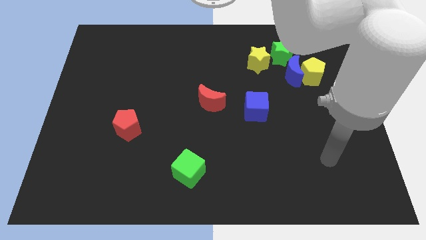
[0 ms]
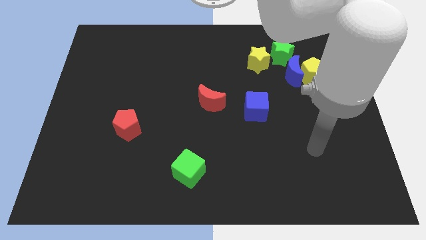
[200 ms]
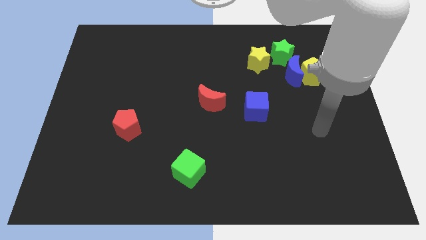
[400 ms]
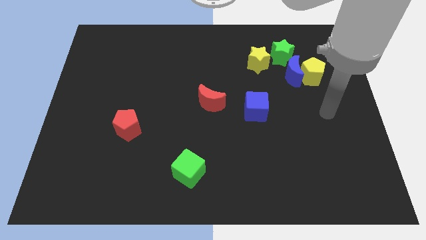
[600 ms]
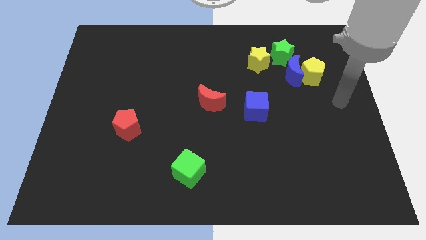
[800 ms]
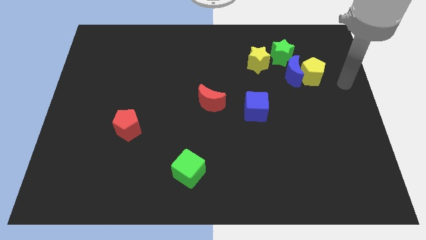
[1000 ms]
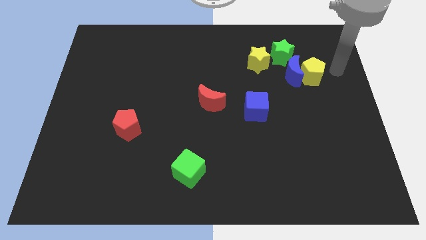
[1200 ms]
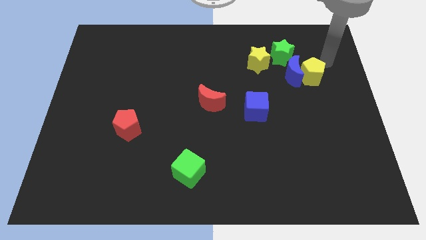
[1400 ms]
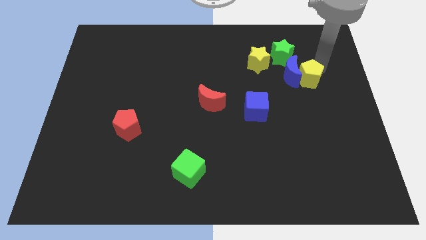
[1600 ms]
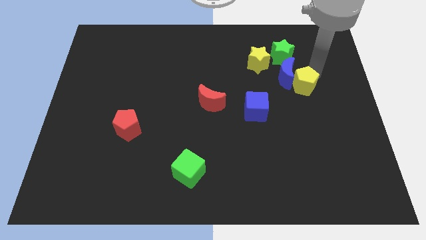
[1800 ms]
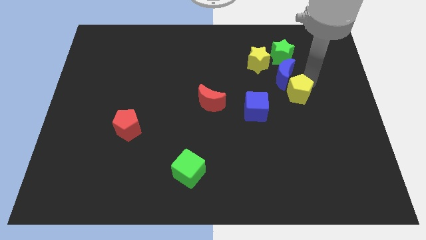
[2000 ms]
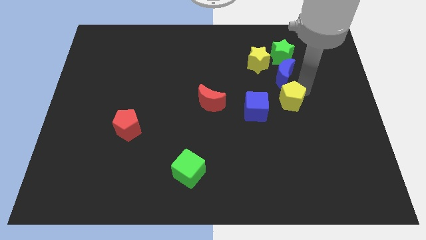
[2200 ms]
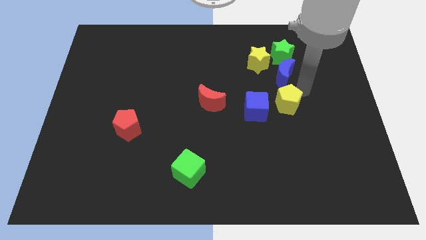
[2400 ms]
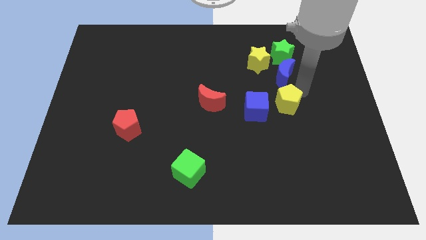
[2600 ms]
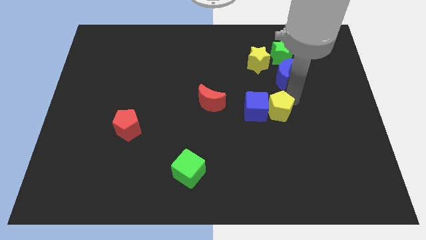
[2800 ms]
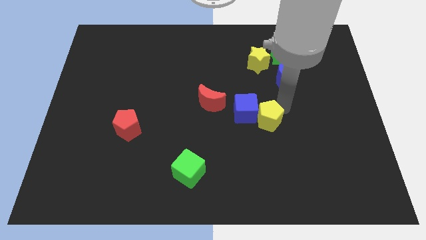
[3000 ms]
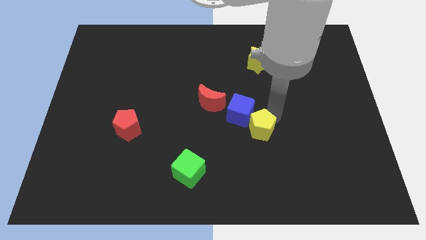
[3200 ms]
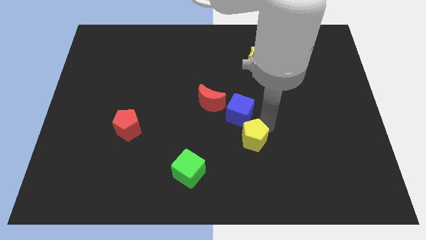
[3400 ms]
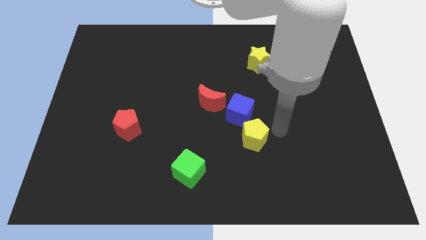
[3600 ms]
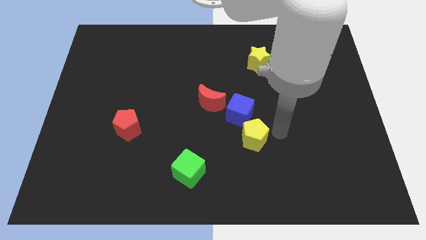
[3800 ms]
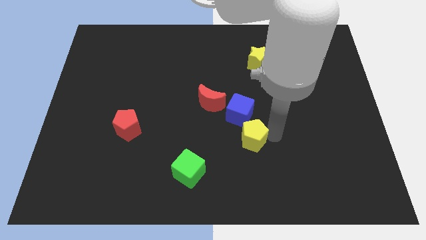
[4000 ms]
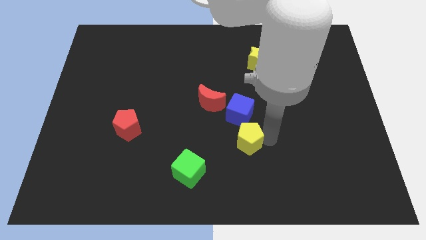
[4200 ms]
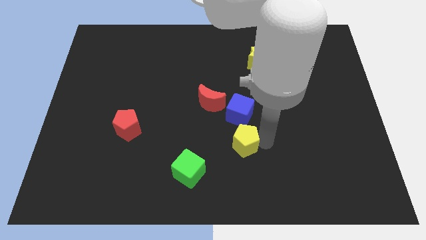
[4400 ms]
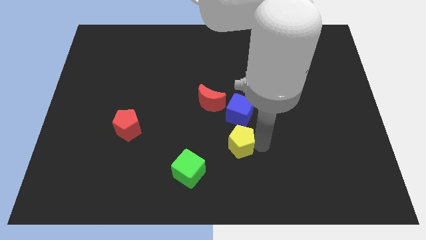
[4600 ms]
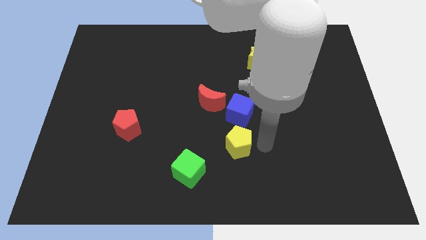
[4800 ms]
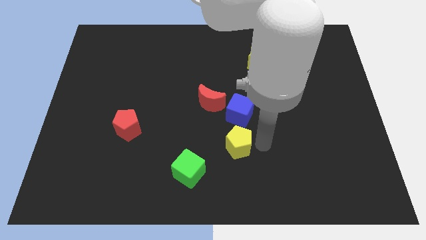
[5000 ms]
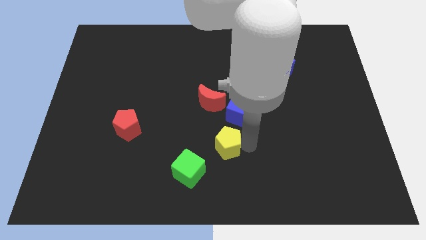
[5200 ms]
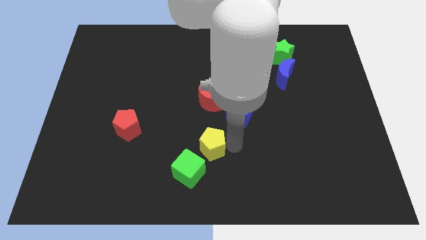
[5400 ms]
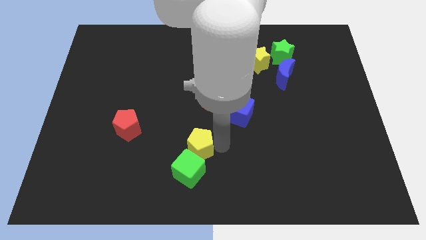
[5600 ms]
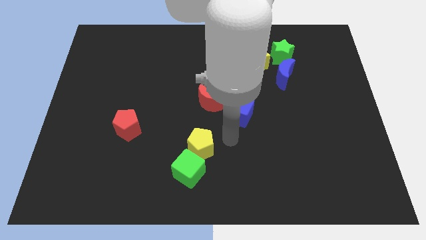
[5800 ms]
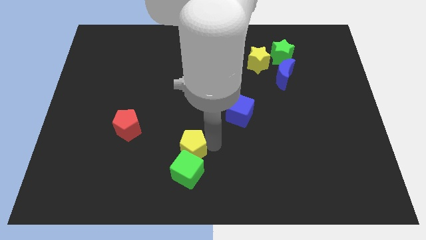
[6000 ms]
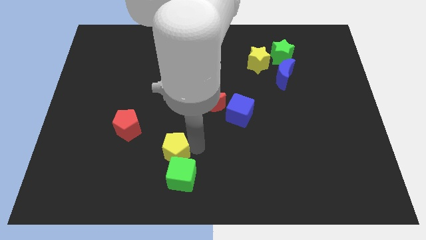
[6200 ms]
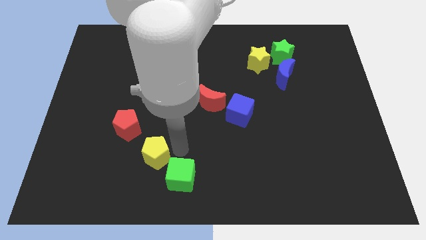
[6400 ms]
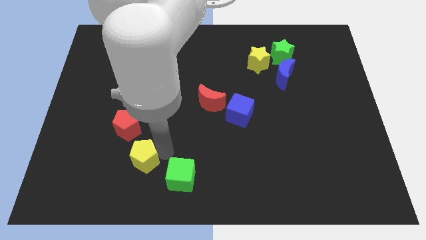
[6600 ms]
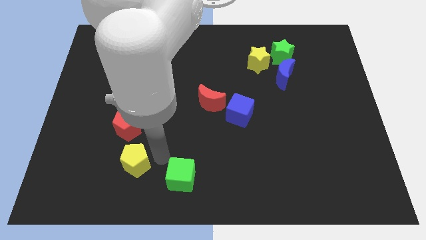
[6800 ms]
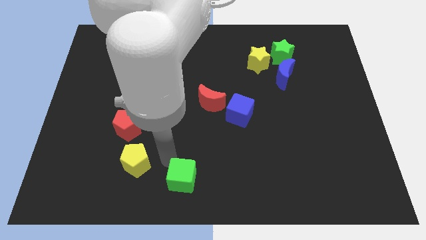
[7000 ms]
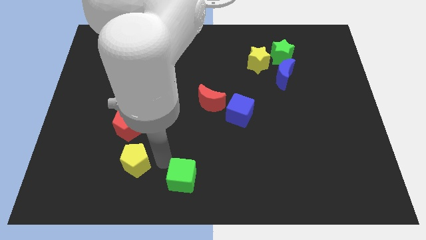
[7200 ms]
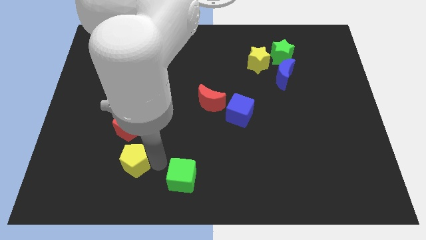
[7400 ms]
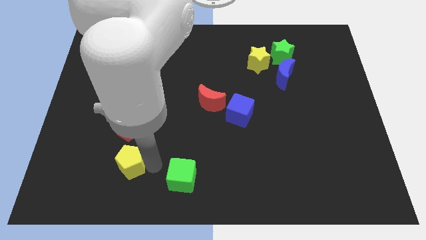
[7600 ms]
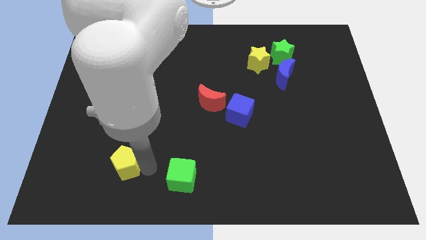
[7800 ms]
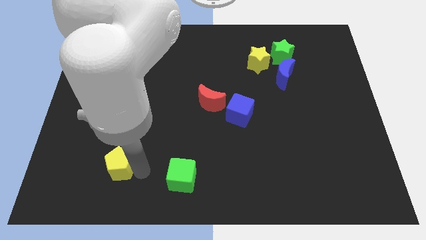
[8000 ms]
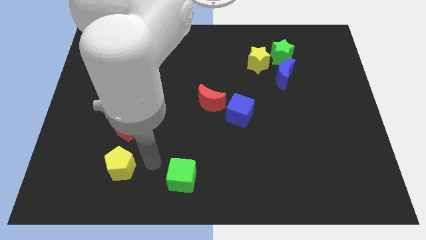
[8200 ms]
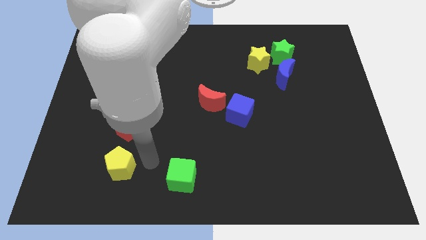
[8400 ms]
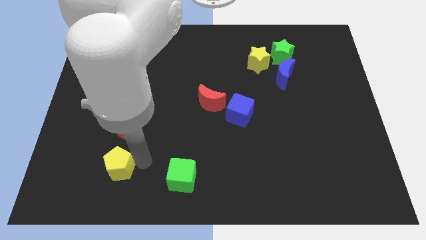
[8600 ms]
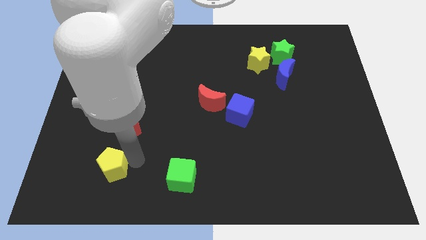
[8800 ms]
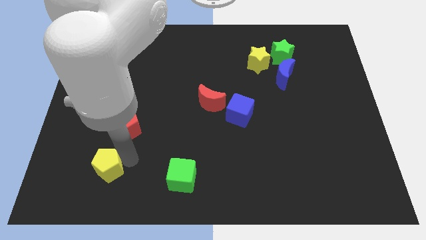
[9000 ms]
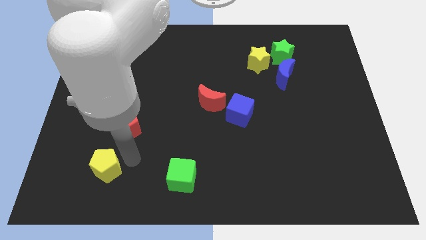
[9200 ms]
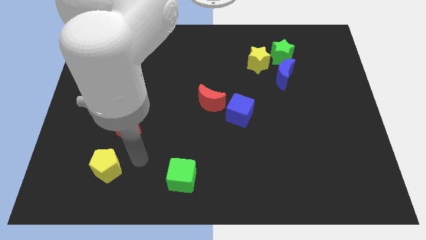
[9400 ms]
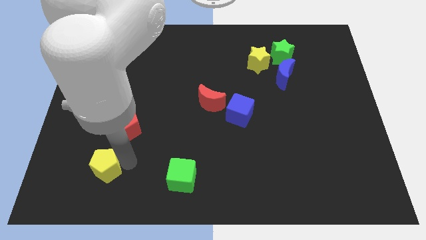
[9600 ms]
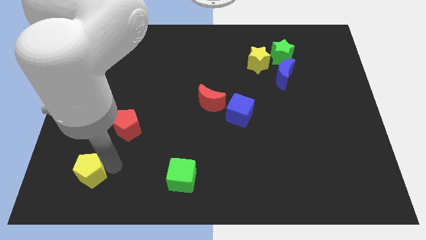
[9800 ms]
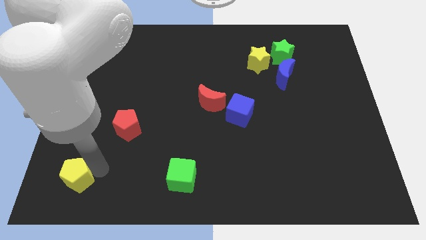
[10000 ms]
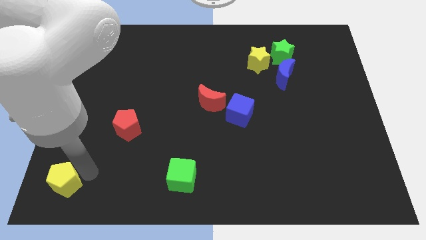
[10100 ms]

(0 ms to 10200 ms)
move the yellow pentagon to the bottom left corner

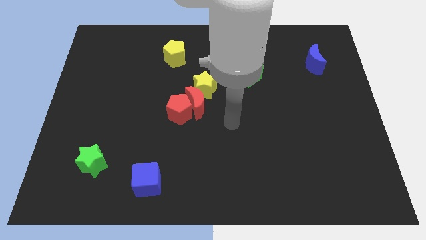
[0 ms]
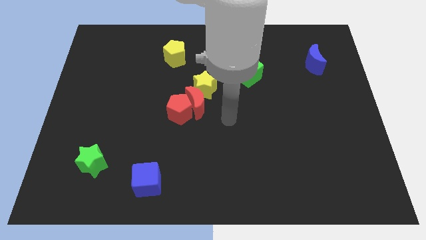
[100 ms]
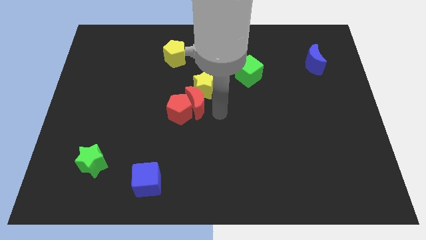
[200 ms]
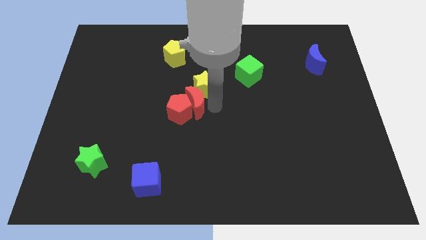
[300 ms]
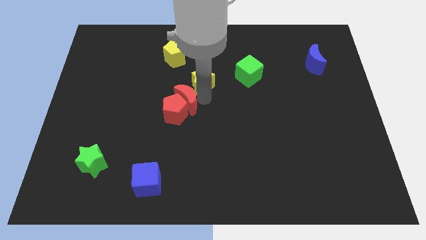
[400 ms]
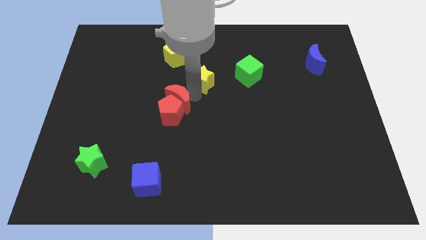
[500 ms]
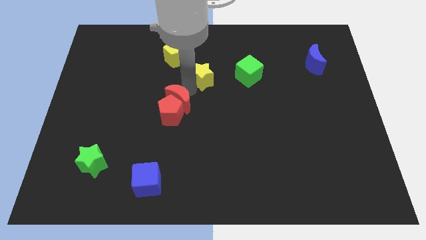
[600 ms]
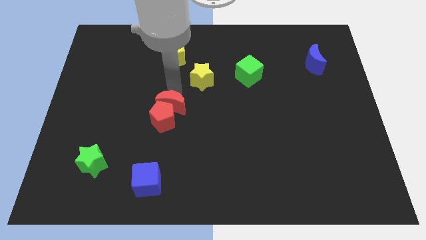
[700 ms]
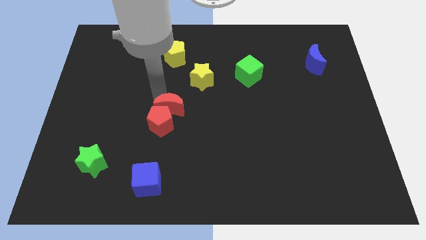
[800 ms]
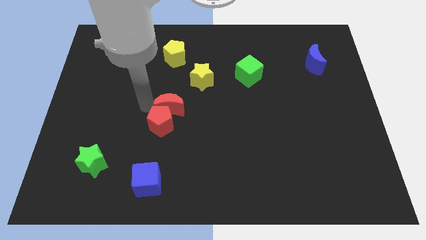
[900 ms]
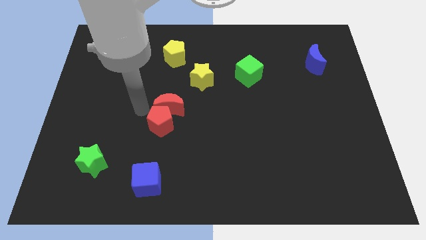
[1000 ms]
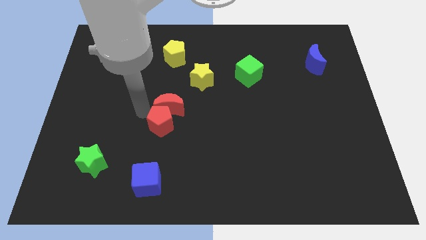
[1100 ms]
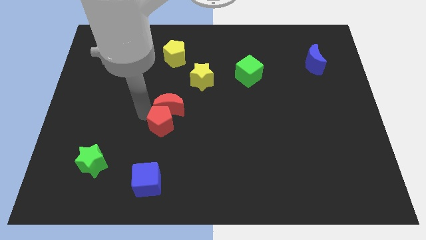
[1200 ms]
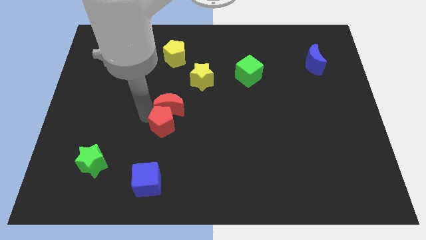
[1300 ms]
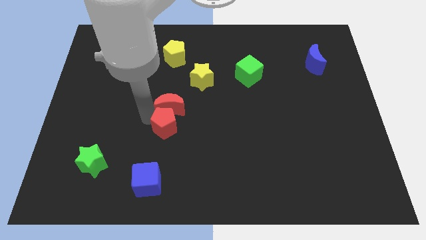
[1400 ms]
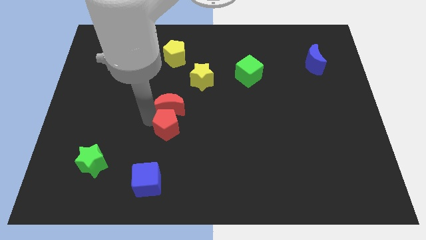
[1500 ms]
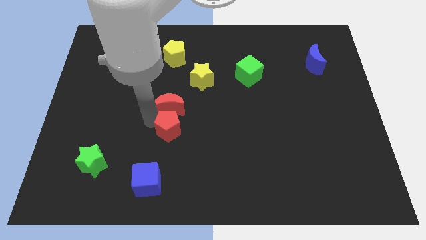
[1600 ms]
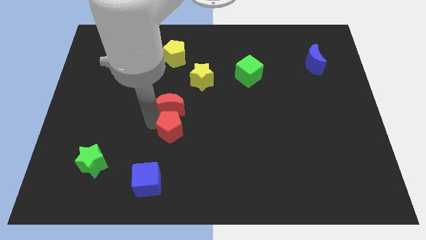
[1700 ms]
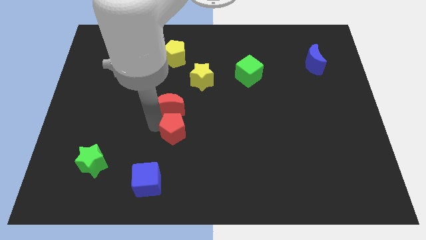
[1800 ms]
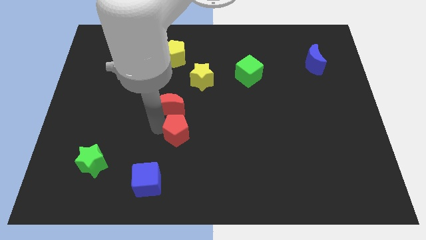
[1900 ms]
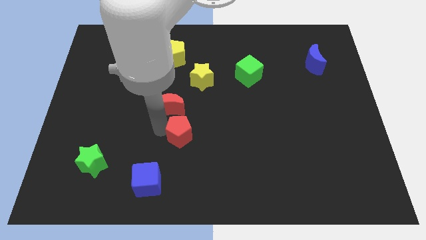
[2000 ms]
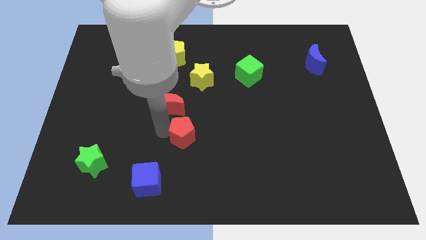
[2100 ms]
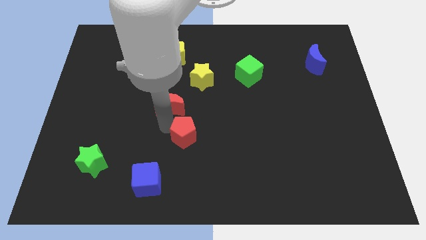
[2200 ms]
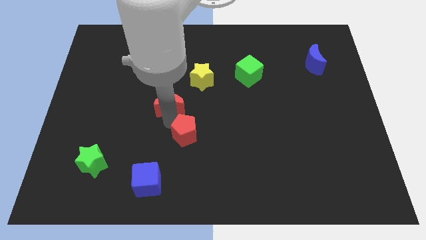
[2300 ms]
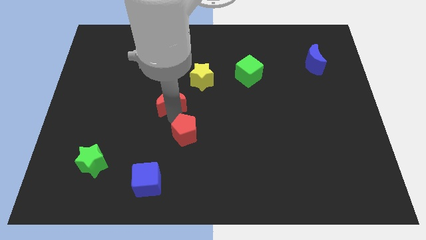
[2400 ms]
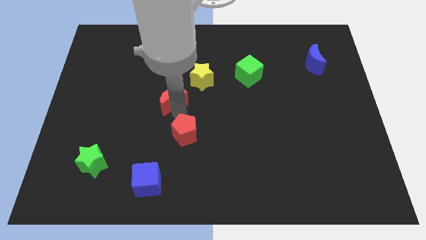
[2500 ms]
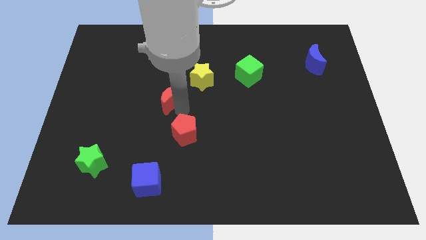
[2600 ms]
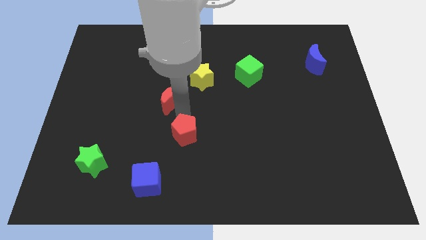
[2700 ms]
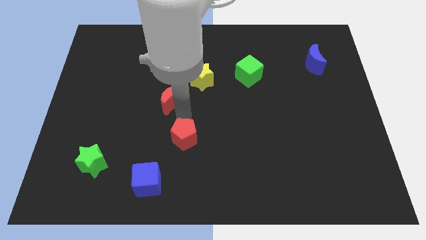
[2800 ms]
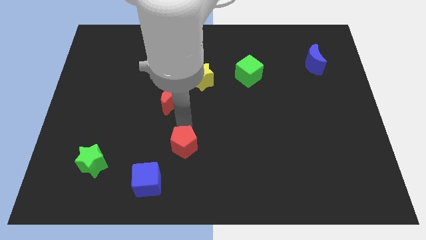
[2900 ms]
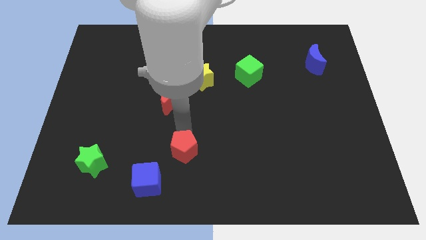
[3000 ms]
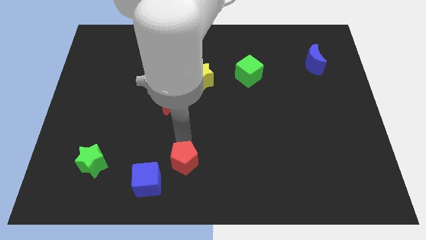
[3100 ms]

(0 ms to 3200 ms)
move the red pentagon to the bottom
